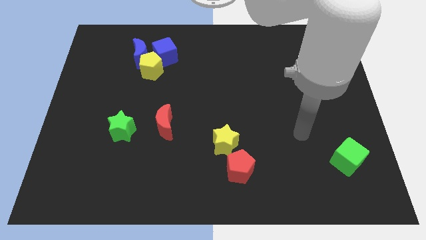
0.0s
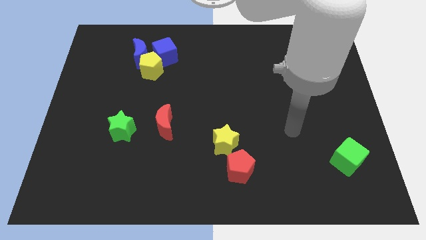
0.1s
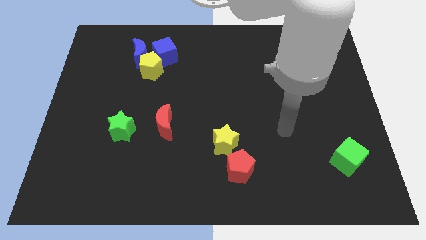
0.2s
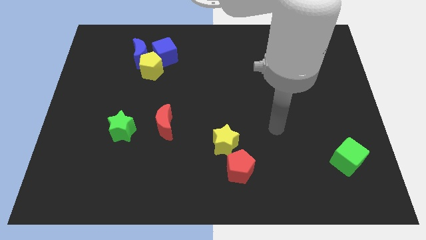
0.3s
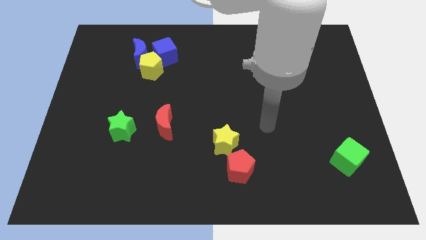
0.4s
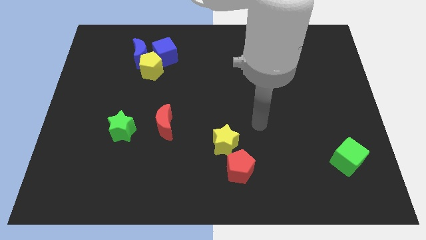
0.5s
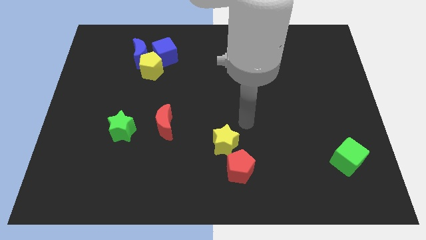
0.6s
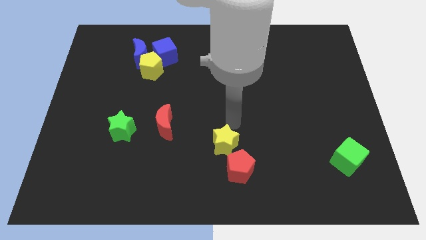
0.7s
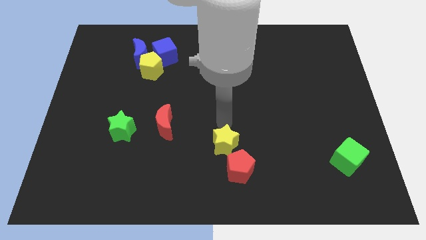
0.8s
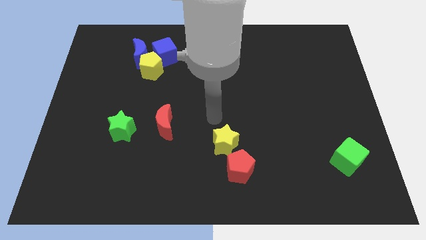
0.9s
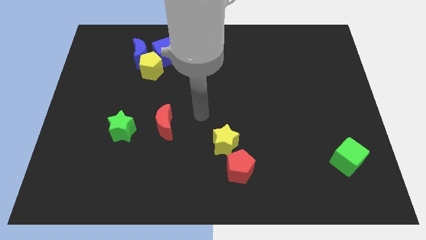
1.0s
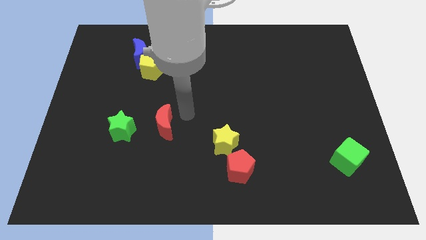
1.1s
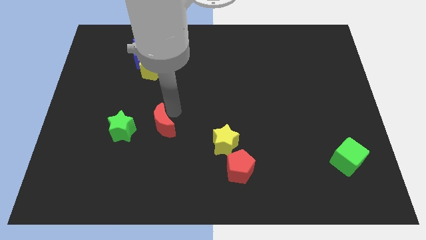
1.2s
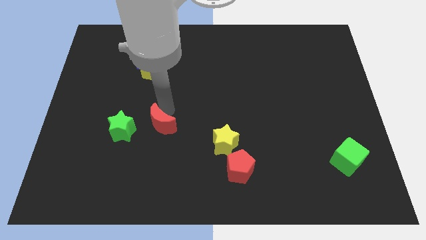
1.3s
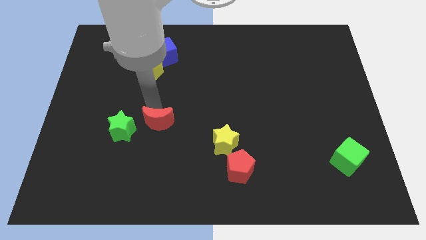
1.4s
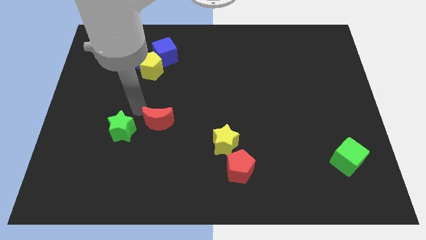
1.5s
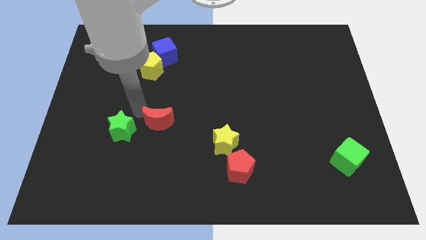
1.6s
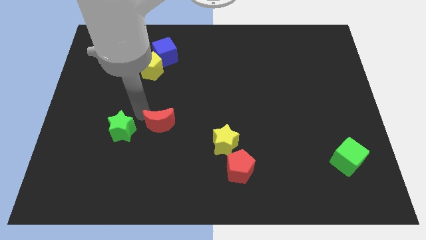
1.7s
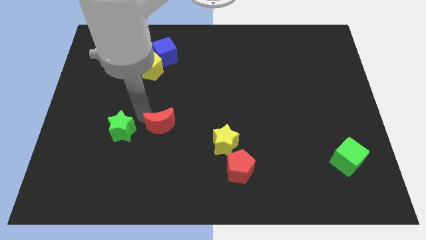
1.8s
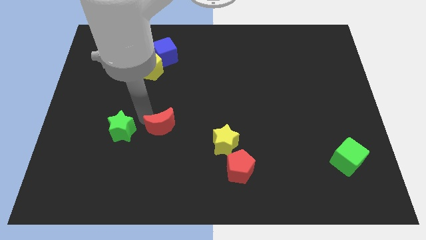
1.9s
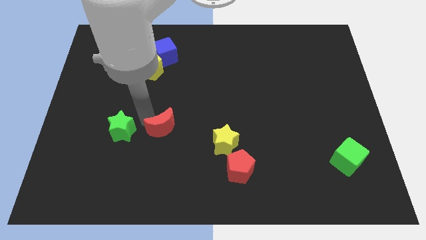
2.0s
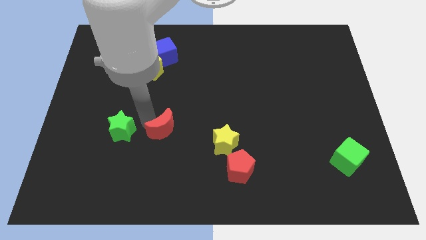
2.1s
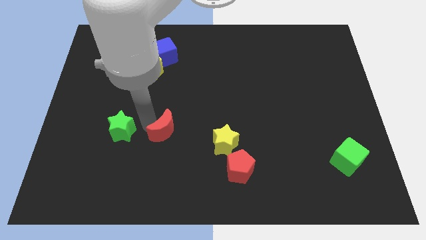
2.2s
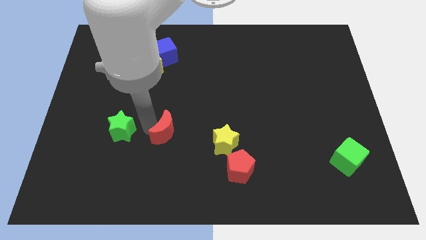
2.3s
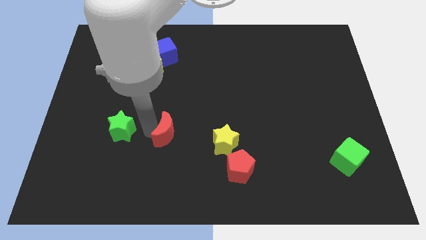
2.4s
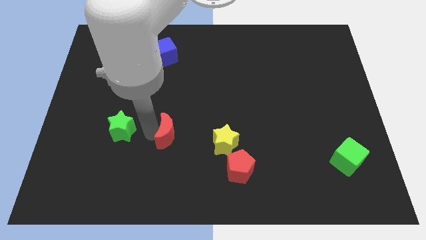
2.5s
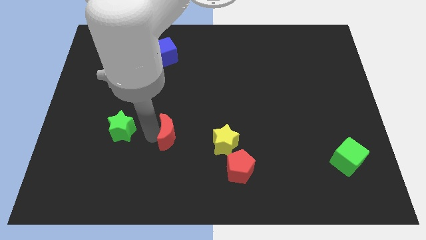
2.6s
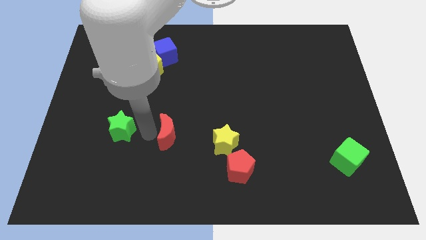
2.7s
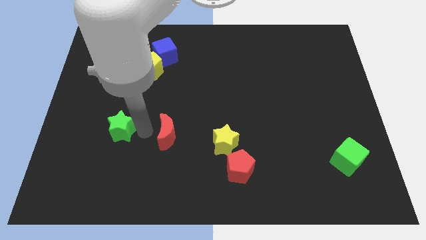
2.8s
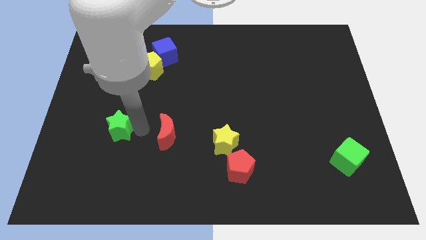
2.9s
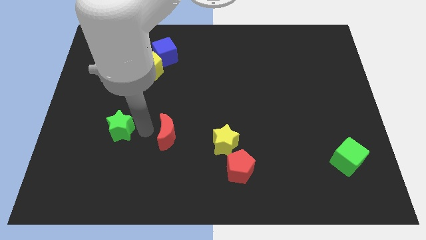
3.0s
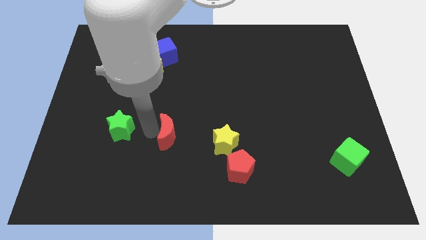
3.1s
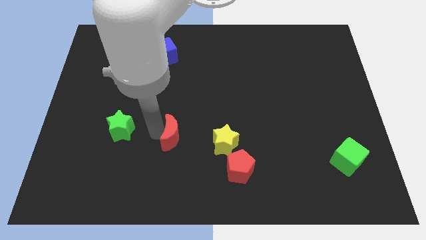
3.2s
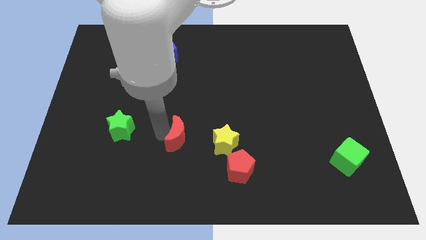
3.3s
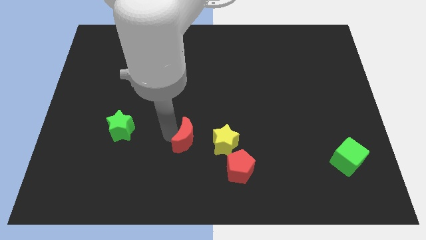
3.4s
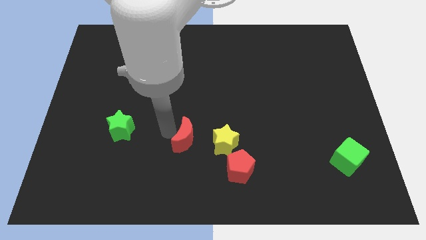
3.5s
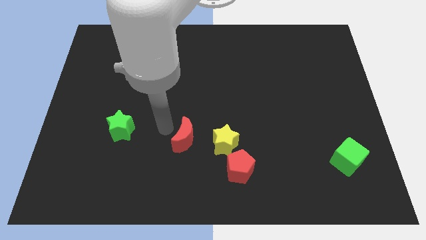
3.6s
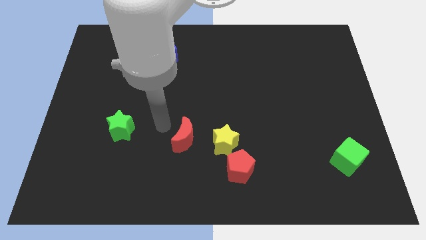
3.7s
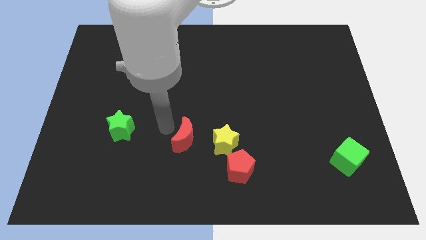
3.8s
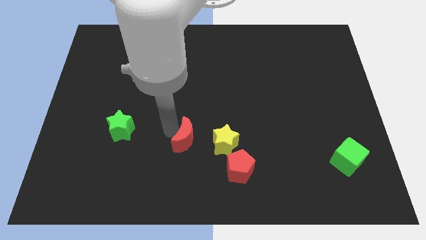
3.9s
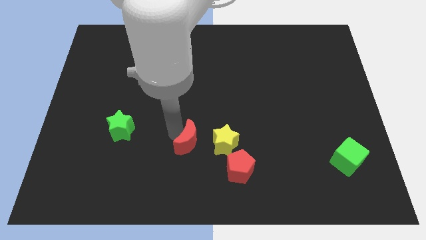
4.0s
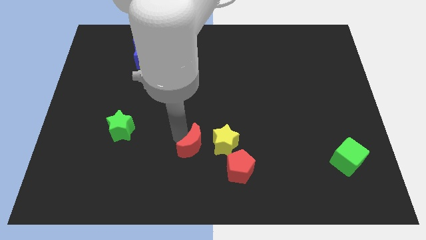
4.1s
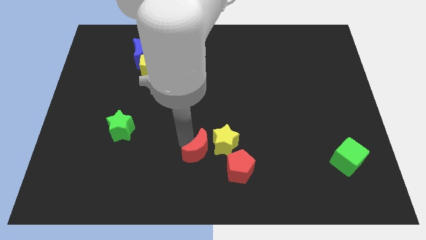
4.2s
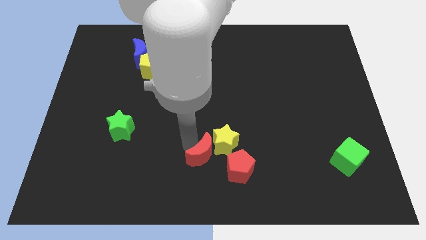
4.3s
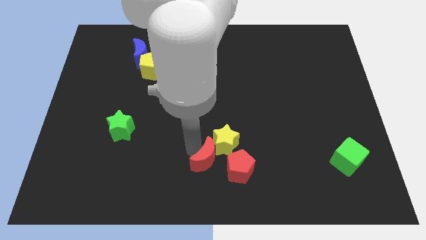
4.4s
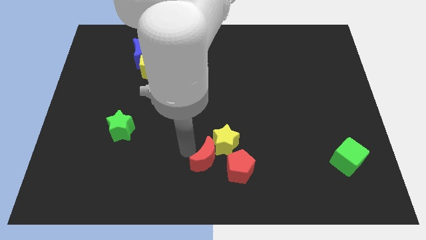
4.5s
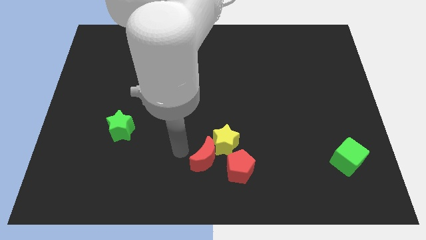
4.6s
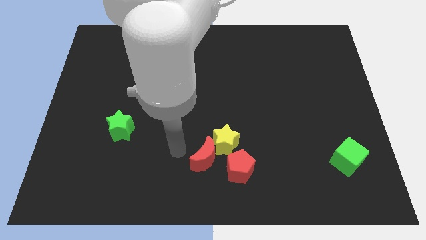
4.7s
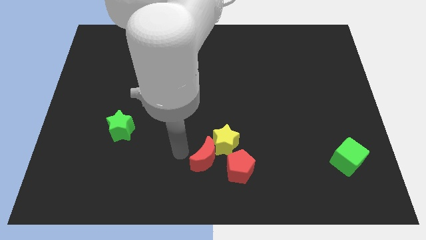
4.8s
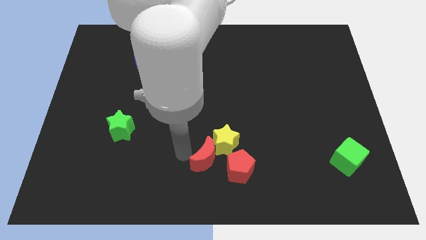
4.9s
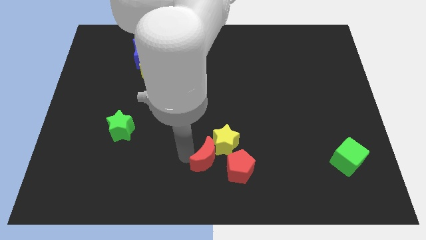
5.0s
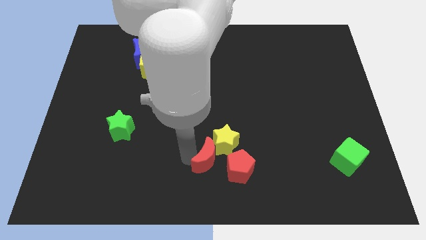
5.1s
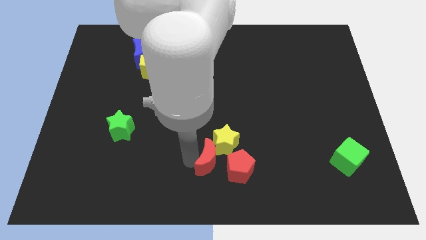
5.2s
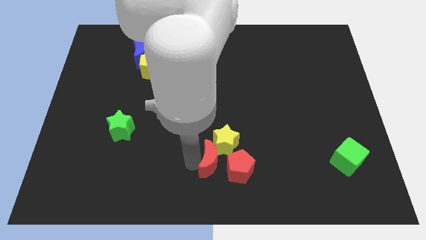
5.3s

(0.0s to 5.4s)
slide the red moon towards the red pentagon

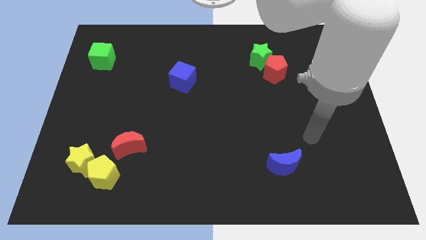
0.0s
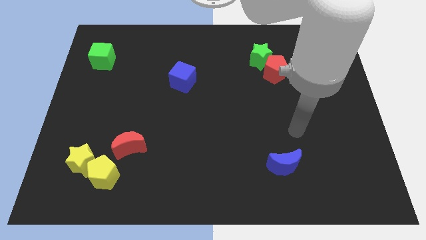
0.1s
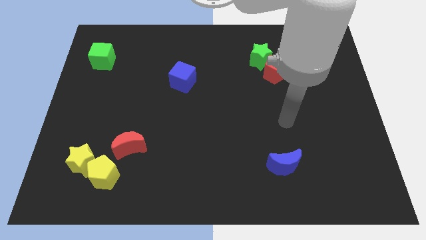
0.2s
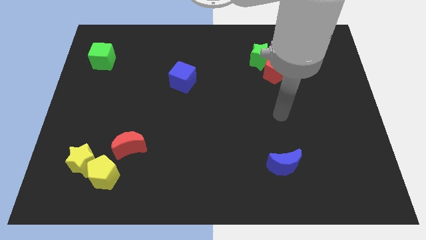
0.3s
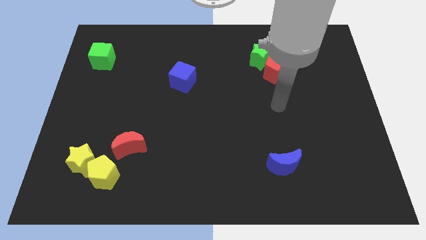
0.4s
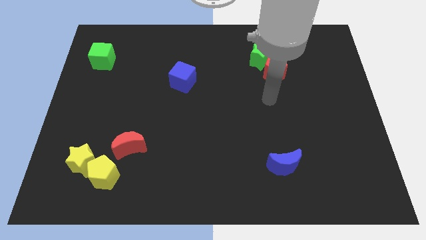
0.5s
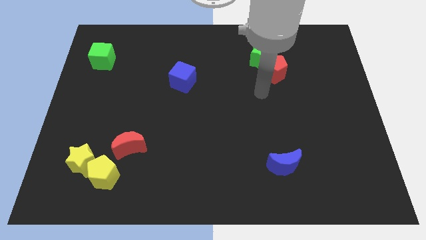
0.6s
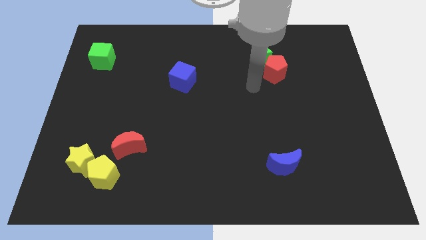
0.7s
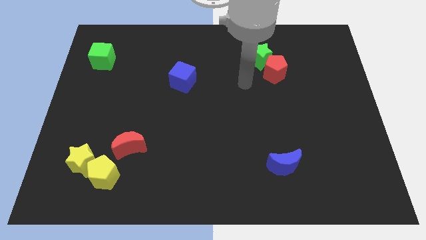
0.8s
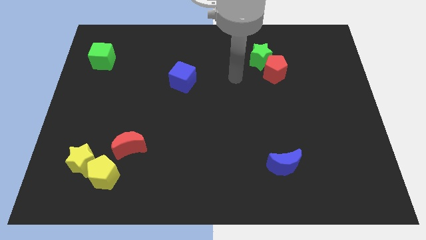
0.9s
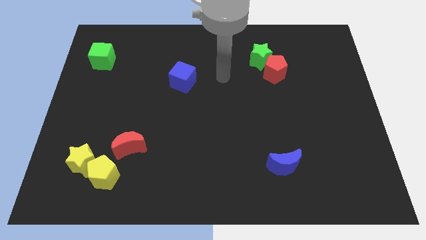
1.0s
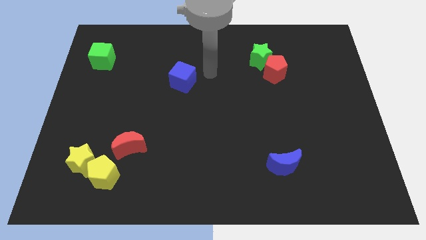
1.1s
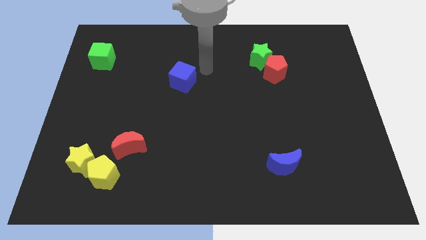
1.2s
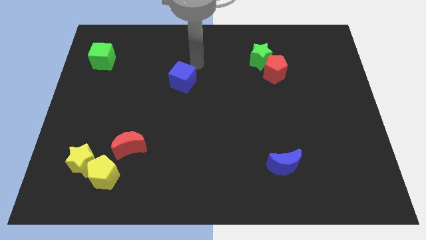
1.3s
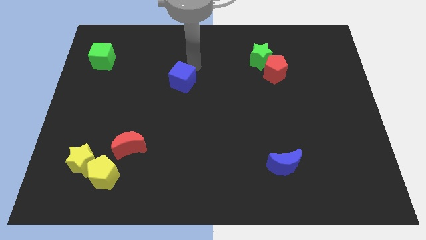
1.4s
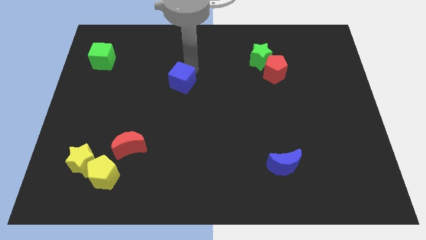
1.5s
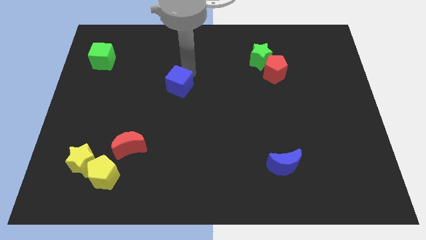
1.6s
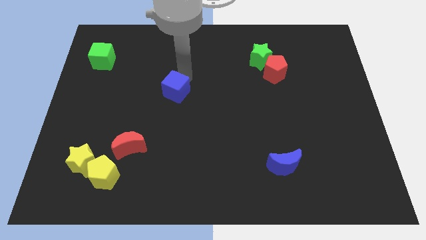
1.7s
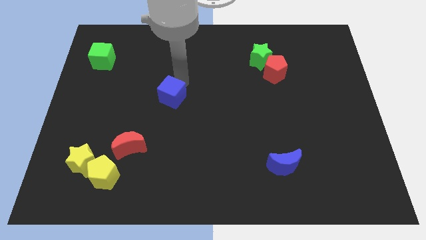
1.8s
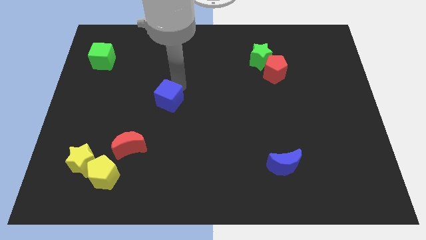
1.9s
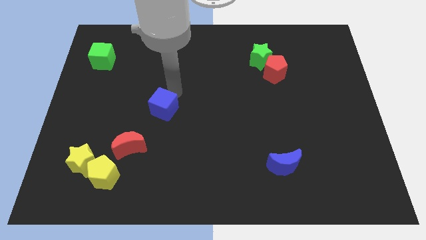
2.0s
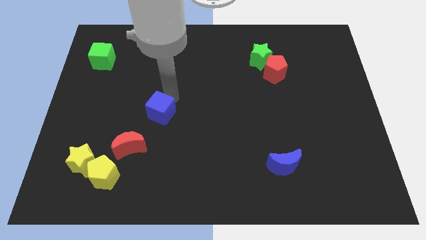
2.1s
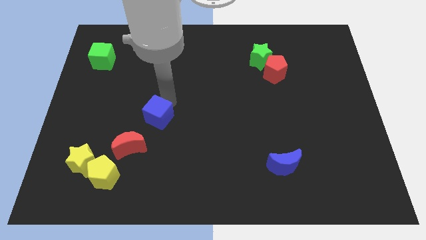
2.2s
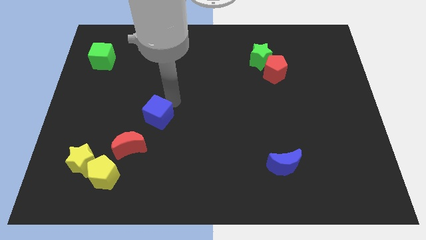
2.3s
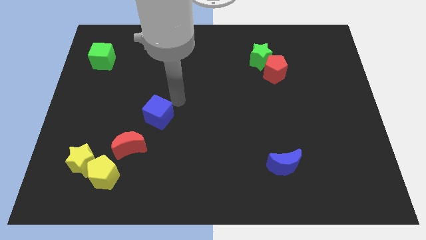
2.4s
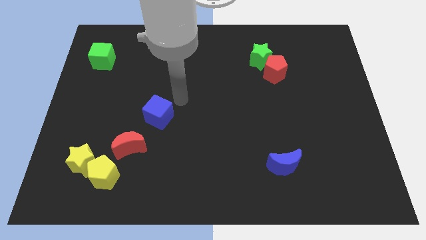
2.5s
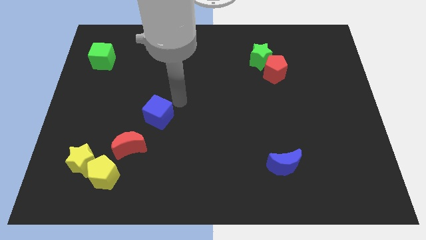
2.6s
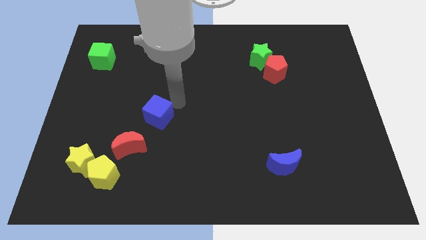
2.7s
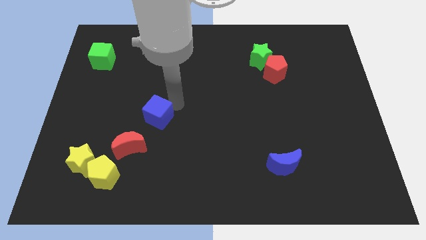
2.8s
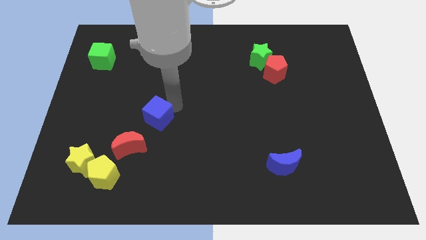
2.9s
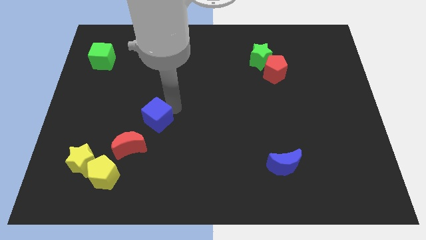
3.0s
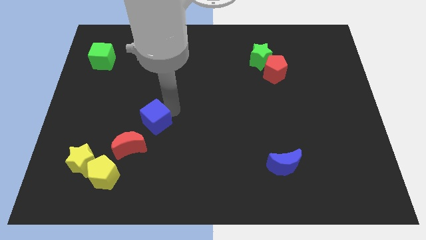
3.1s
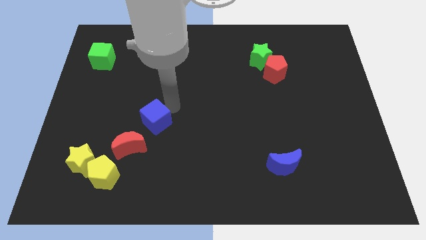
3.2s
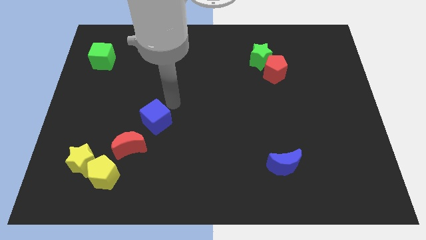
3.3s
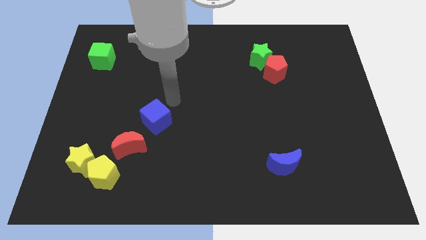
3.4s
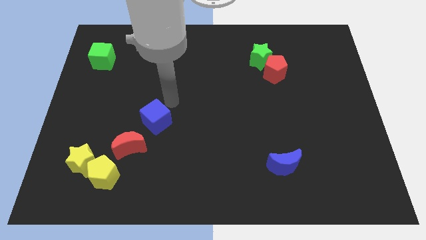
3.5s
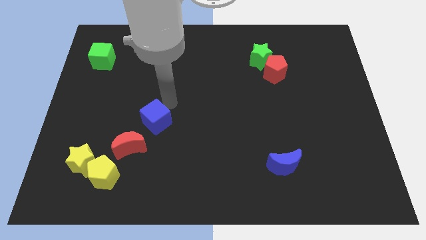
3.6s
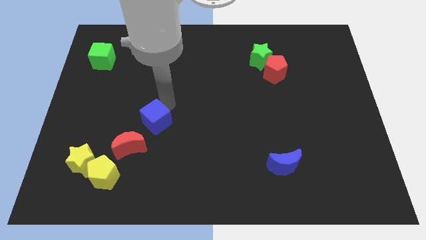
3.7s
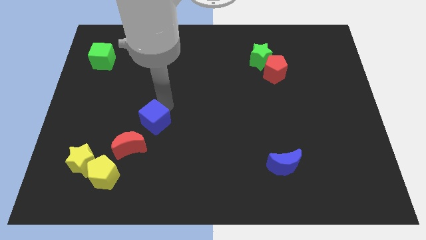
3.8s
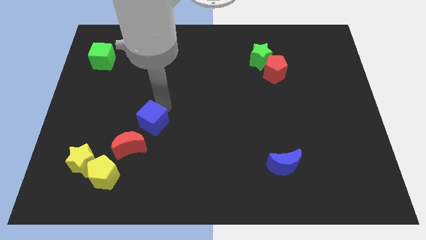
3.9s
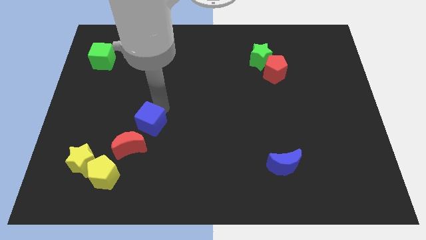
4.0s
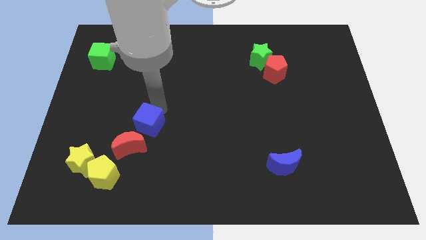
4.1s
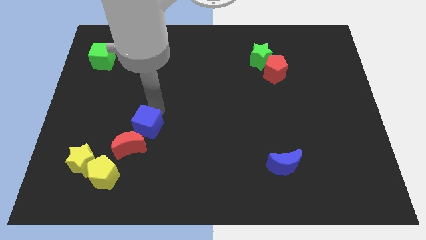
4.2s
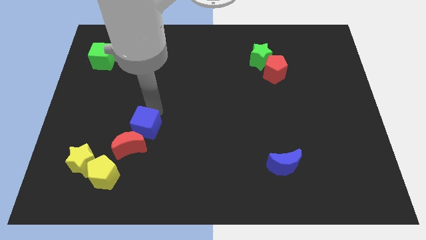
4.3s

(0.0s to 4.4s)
put the blue cube next to the red moon
